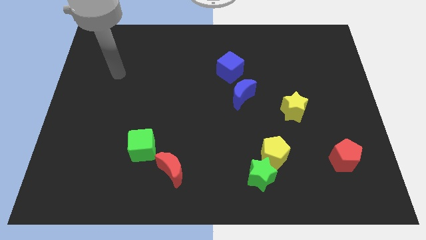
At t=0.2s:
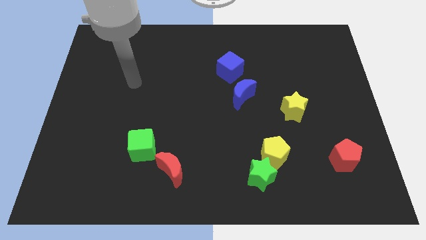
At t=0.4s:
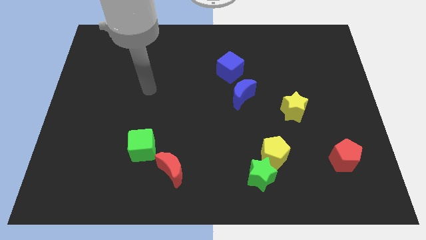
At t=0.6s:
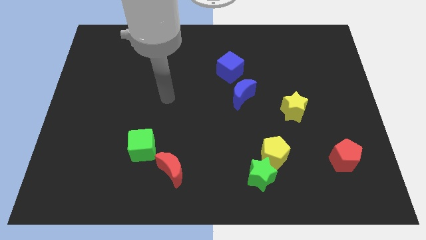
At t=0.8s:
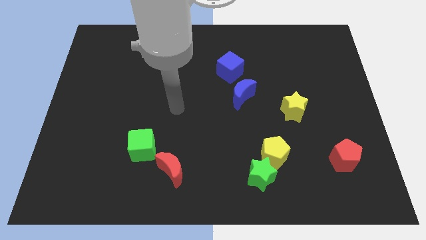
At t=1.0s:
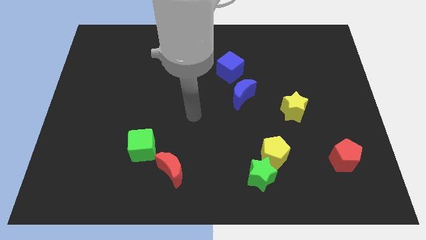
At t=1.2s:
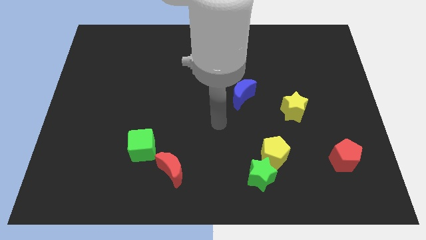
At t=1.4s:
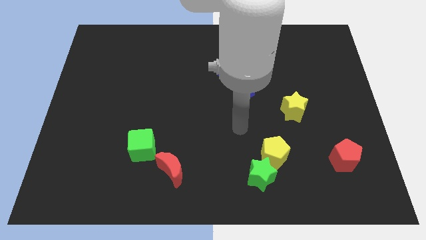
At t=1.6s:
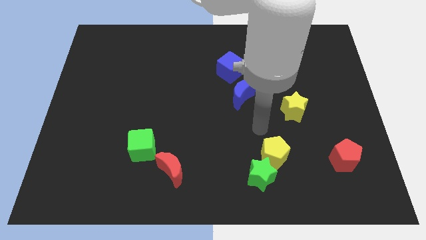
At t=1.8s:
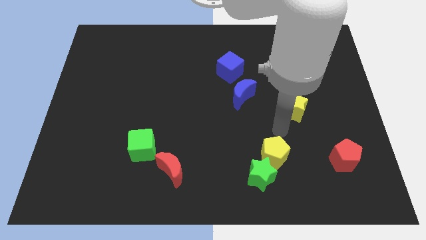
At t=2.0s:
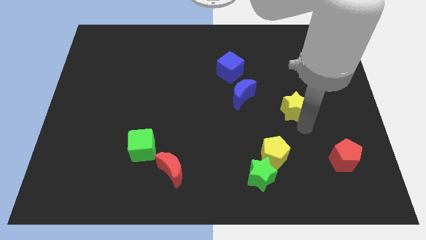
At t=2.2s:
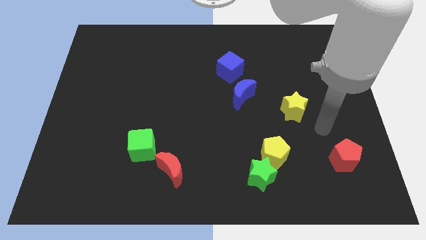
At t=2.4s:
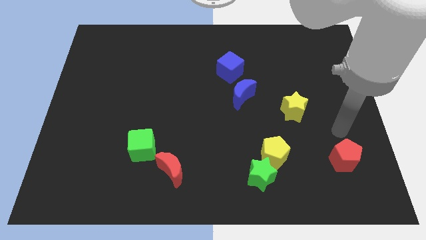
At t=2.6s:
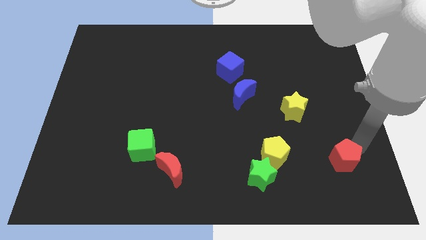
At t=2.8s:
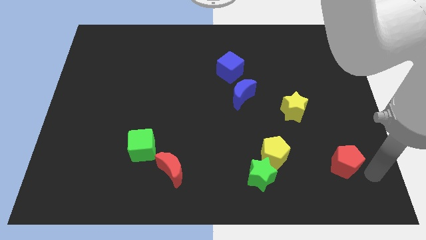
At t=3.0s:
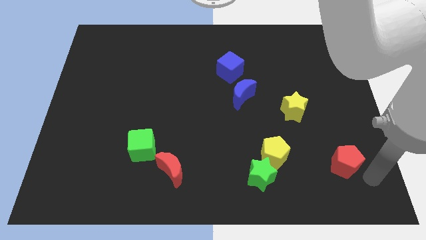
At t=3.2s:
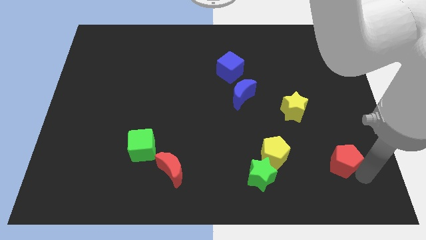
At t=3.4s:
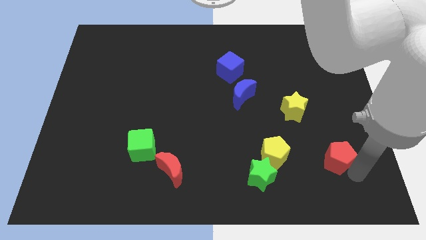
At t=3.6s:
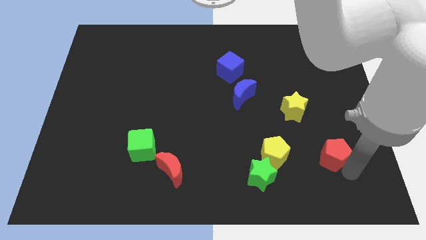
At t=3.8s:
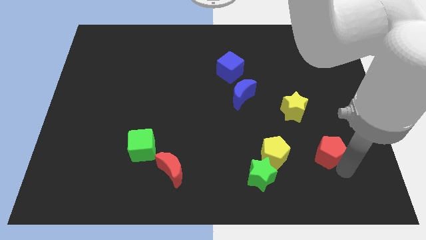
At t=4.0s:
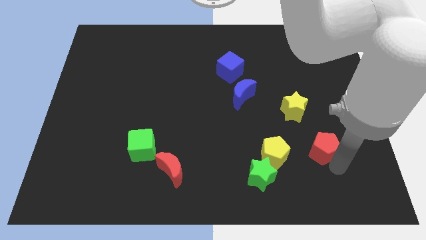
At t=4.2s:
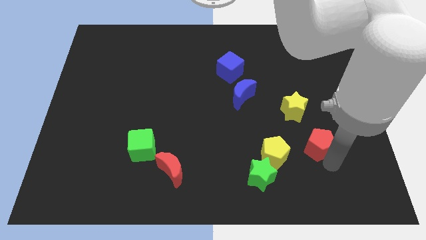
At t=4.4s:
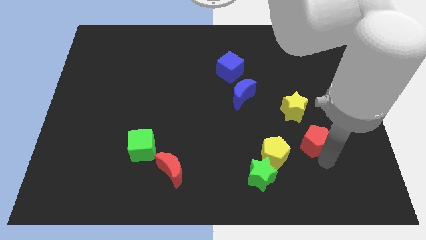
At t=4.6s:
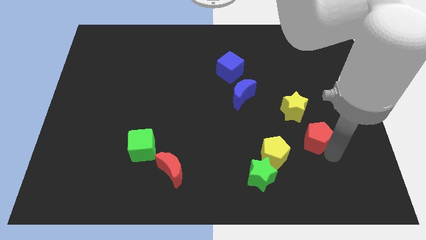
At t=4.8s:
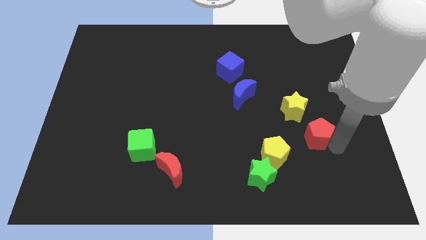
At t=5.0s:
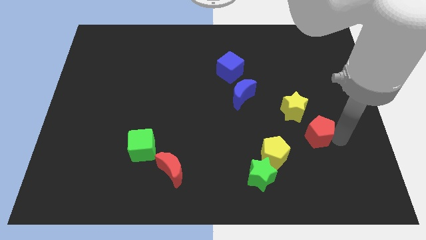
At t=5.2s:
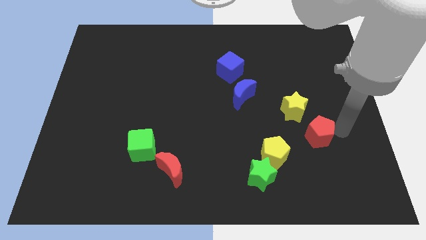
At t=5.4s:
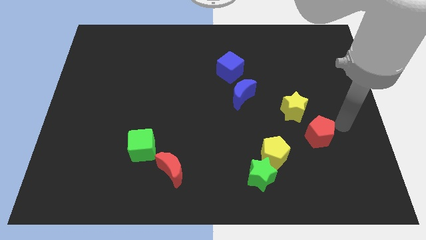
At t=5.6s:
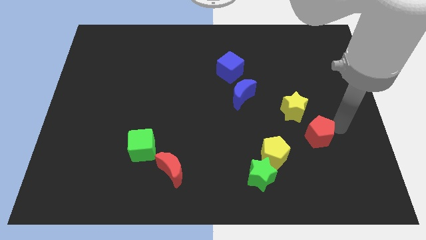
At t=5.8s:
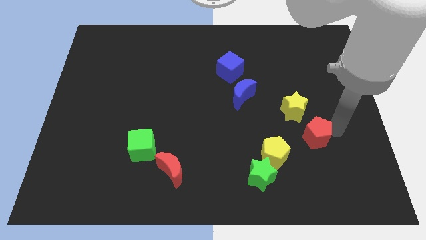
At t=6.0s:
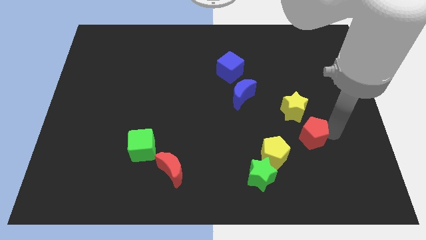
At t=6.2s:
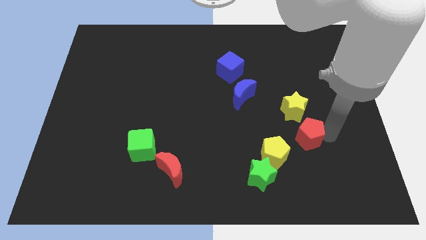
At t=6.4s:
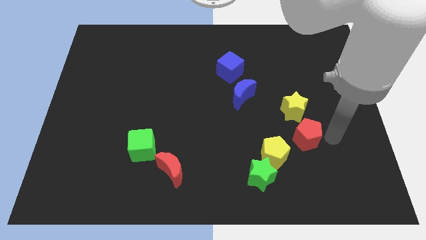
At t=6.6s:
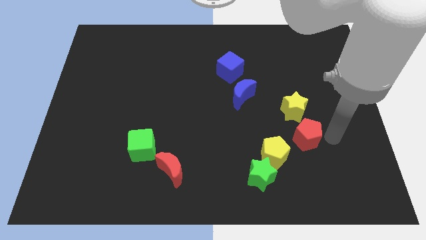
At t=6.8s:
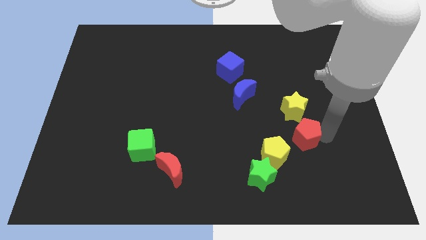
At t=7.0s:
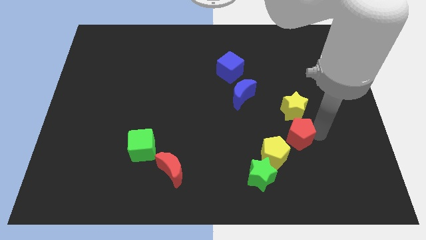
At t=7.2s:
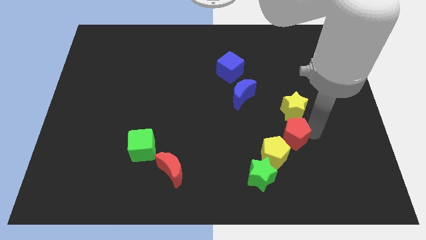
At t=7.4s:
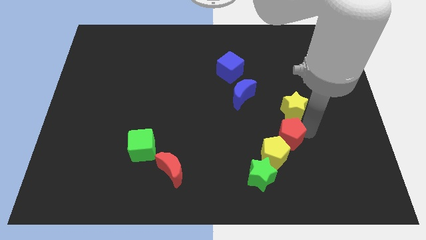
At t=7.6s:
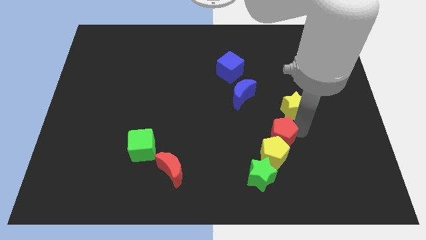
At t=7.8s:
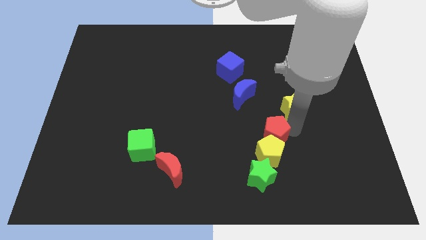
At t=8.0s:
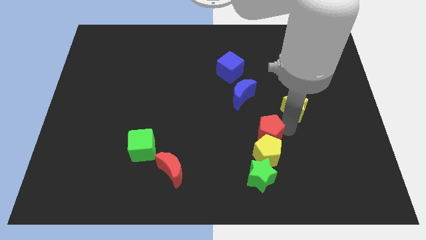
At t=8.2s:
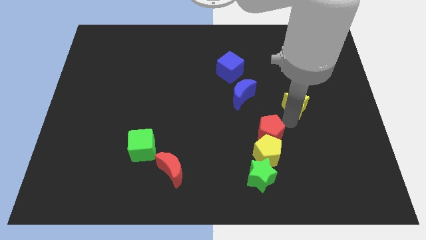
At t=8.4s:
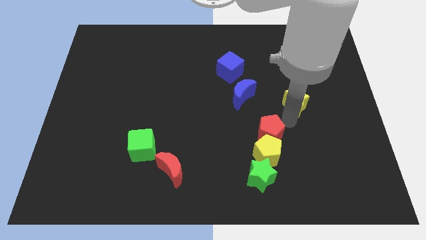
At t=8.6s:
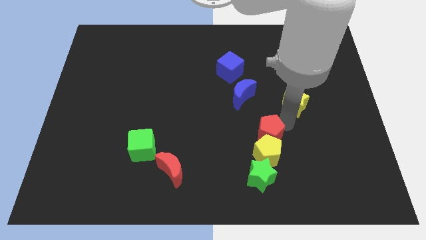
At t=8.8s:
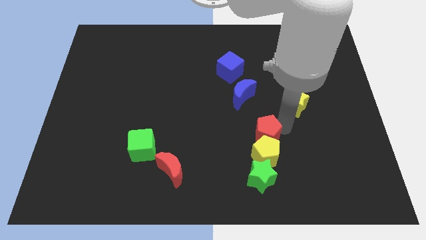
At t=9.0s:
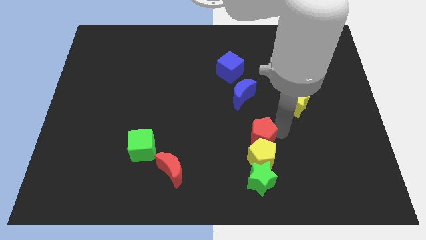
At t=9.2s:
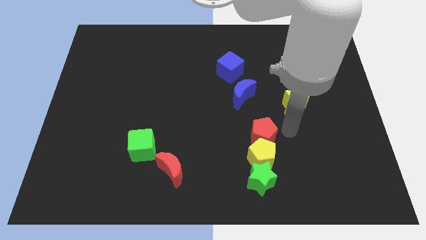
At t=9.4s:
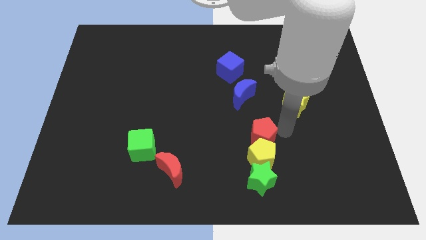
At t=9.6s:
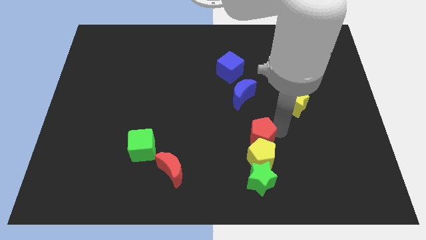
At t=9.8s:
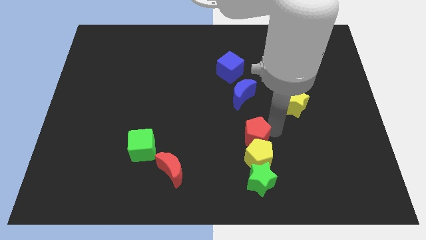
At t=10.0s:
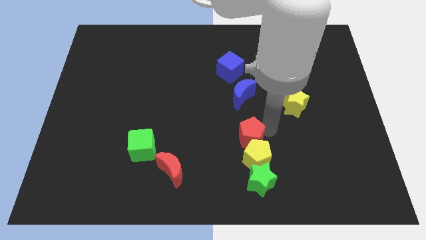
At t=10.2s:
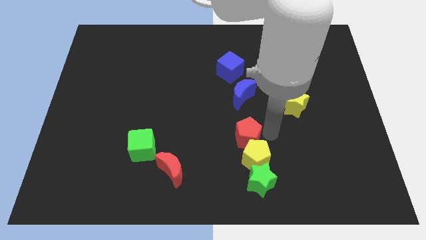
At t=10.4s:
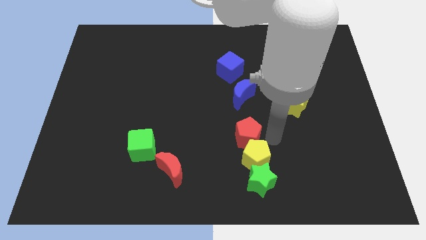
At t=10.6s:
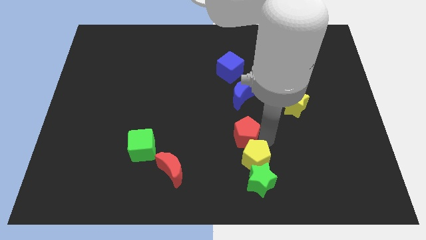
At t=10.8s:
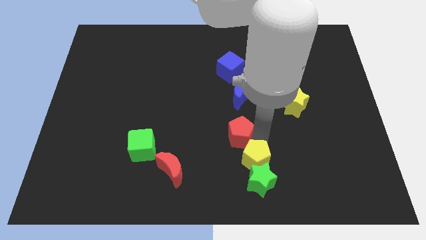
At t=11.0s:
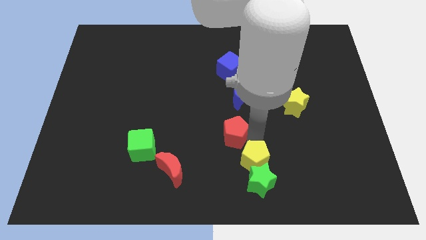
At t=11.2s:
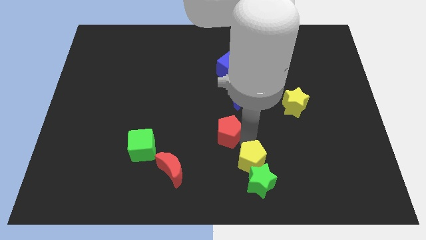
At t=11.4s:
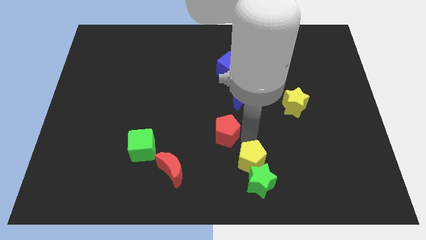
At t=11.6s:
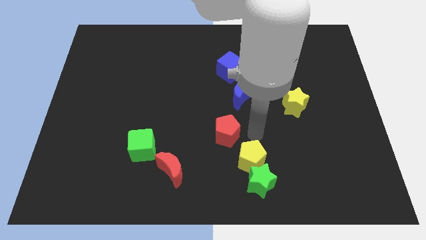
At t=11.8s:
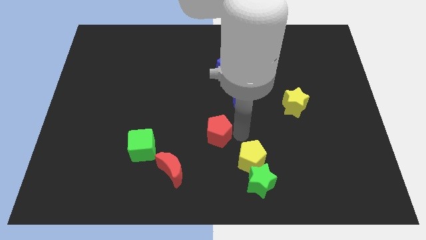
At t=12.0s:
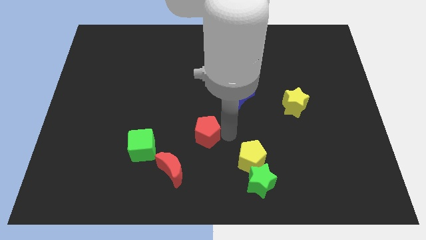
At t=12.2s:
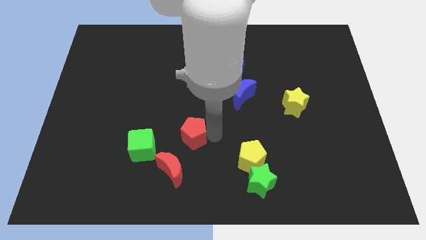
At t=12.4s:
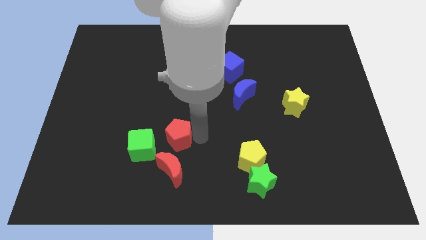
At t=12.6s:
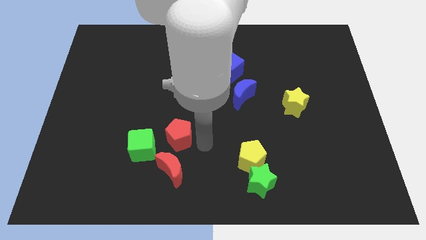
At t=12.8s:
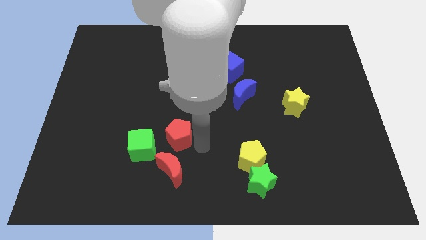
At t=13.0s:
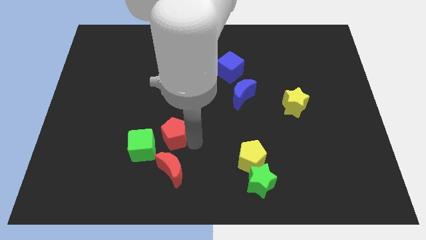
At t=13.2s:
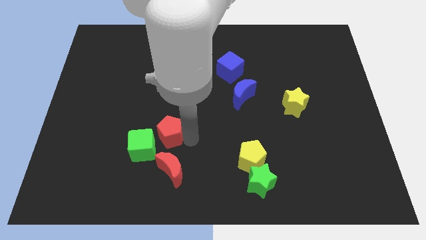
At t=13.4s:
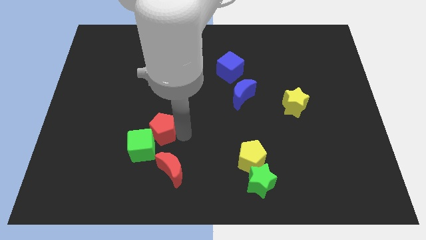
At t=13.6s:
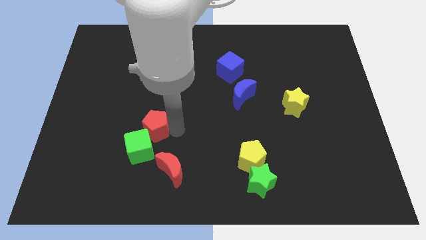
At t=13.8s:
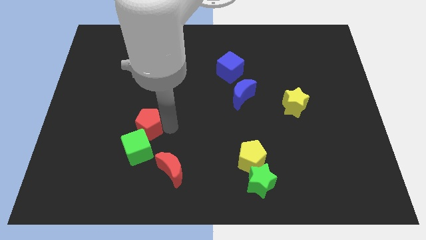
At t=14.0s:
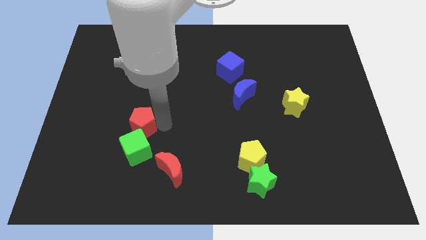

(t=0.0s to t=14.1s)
push the red pentagon to the top left side of the green cube

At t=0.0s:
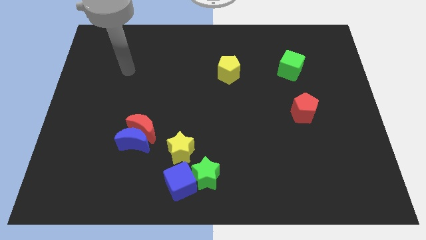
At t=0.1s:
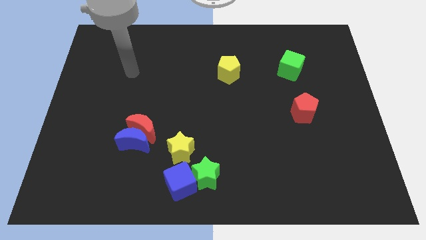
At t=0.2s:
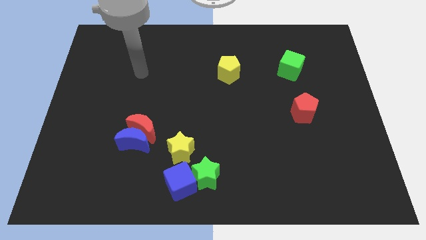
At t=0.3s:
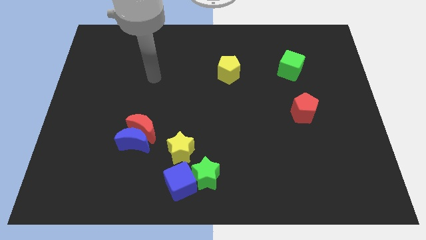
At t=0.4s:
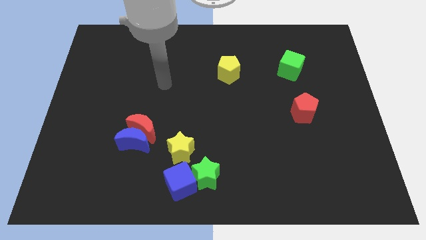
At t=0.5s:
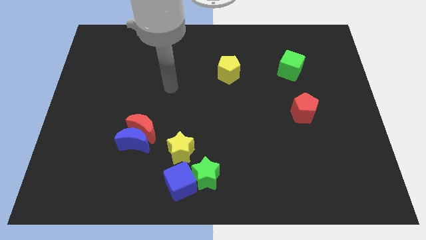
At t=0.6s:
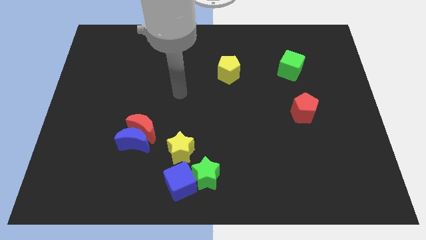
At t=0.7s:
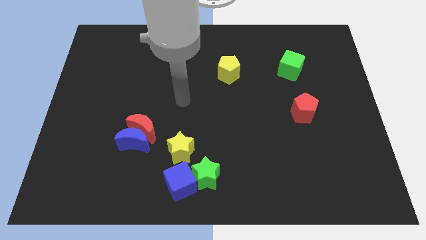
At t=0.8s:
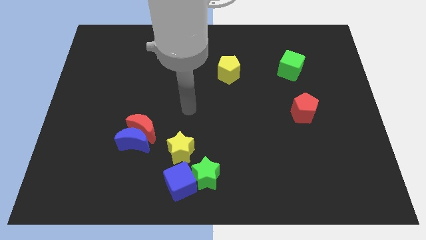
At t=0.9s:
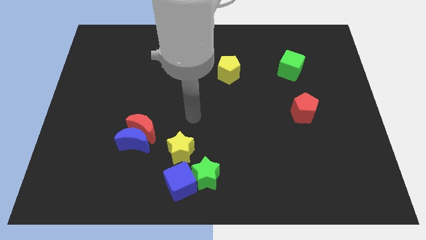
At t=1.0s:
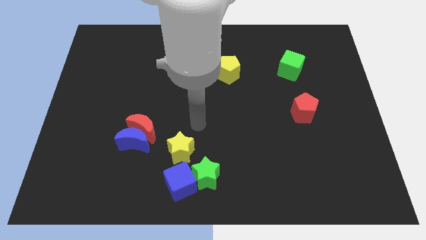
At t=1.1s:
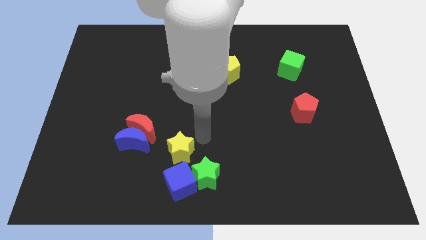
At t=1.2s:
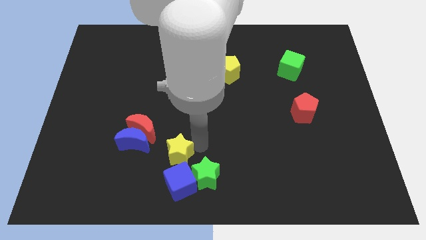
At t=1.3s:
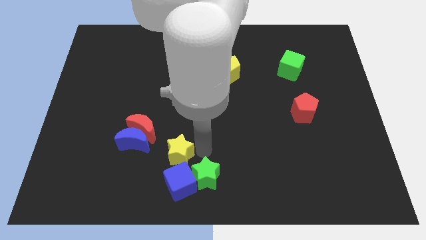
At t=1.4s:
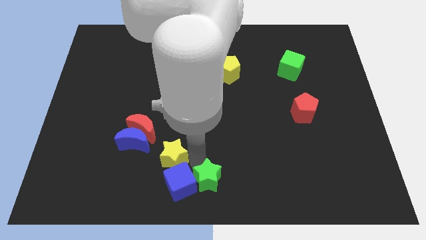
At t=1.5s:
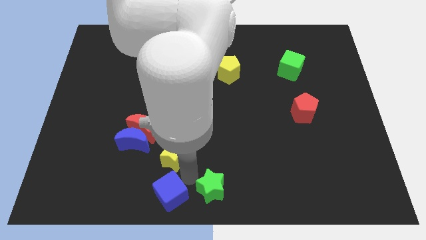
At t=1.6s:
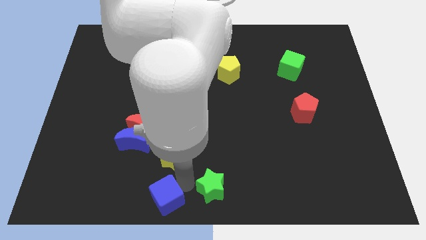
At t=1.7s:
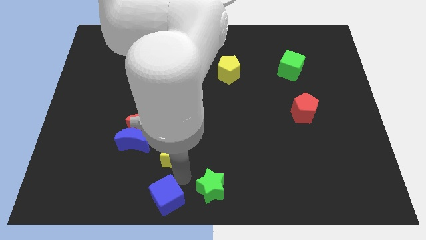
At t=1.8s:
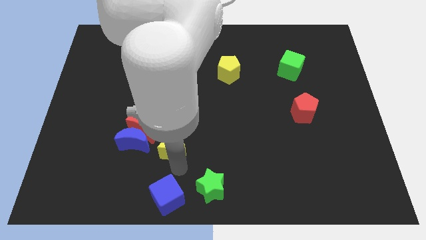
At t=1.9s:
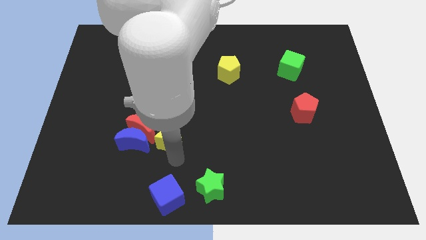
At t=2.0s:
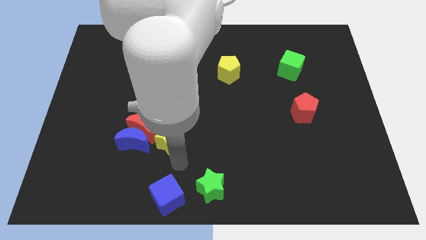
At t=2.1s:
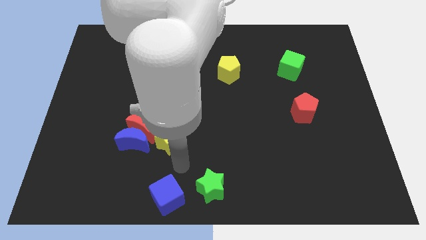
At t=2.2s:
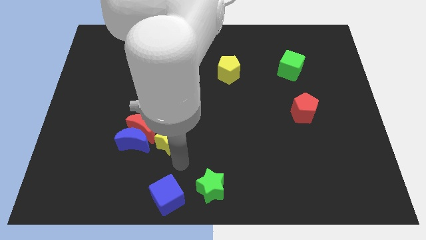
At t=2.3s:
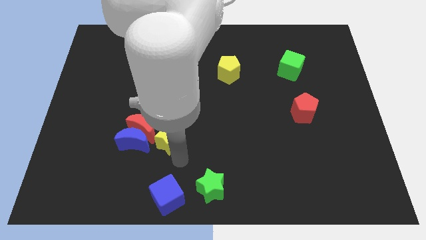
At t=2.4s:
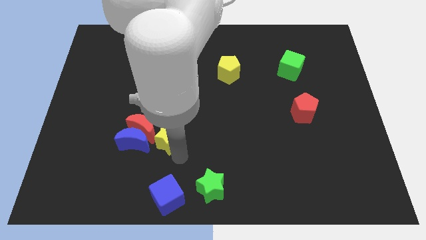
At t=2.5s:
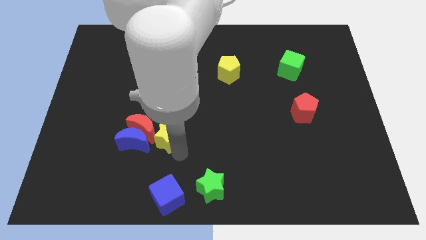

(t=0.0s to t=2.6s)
put the yellow star diagonally up and to the right of the blue moon
